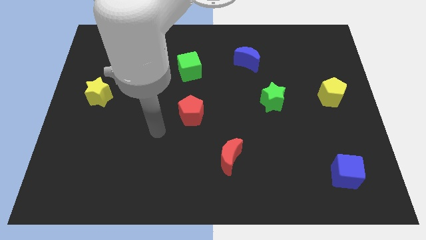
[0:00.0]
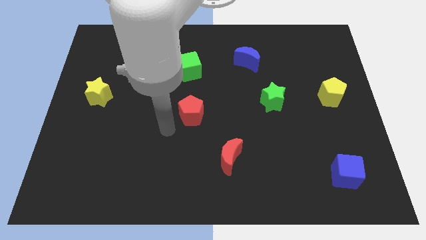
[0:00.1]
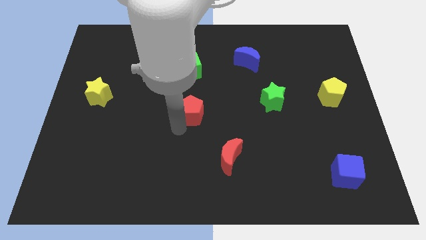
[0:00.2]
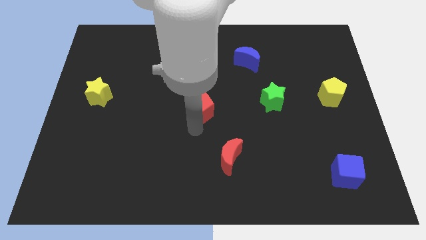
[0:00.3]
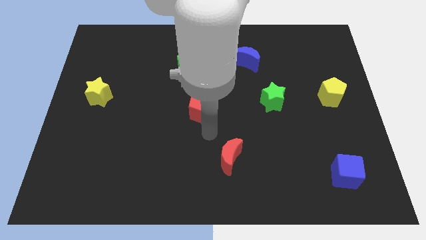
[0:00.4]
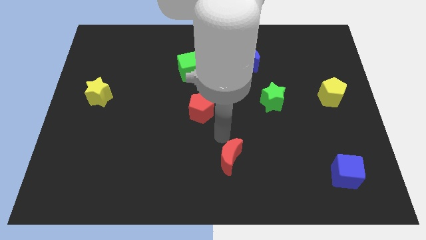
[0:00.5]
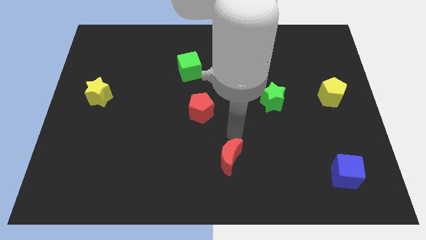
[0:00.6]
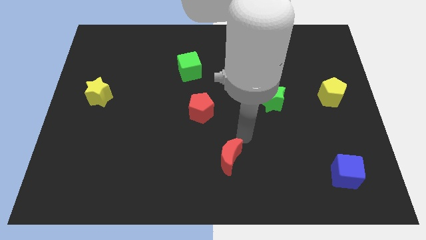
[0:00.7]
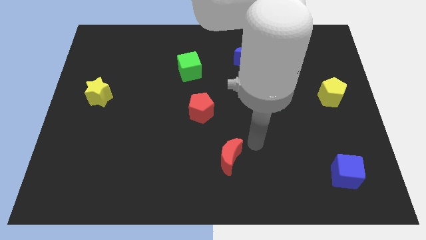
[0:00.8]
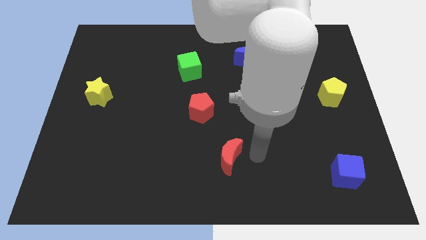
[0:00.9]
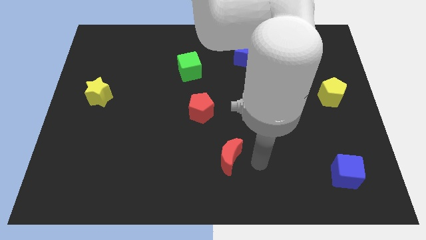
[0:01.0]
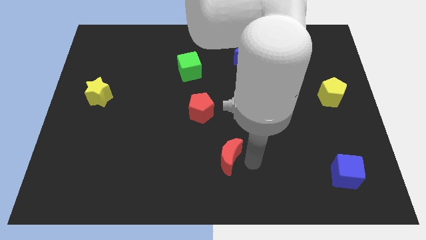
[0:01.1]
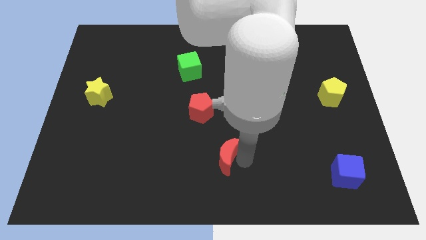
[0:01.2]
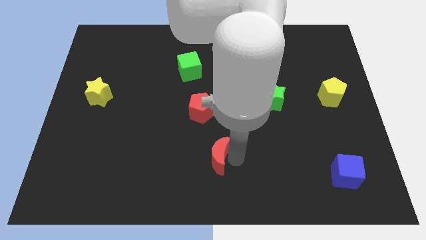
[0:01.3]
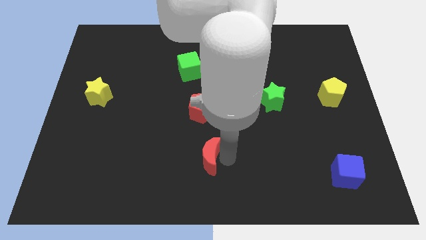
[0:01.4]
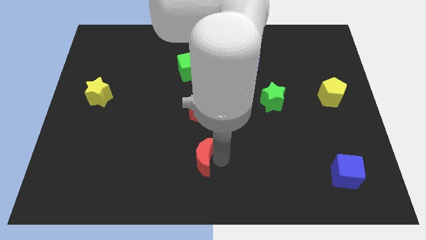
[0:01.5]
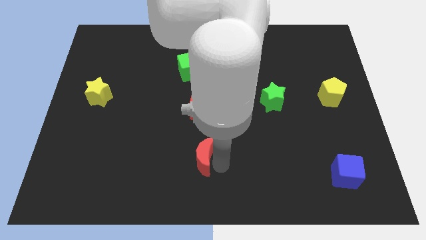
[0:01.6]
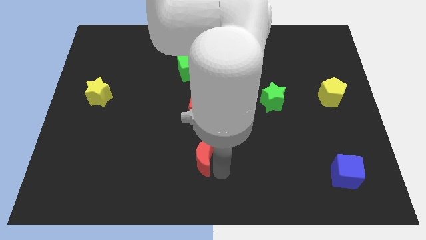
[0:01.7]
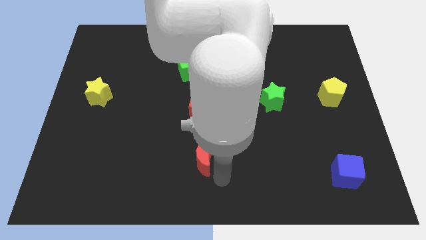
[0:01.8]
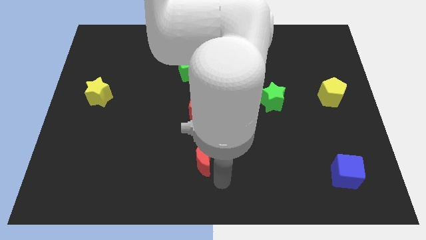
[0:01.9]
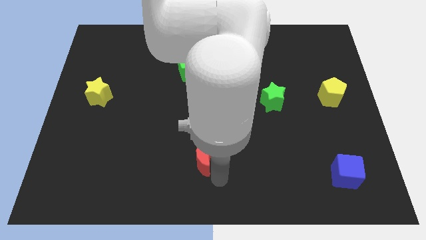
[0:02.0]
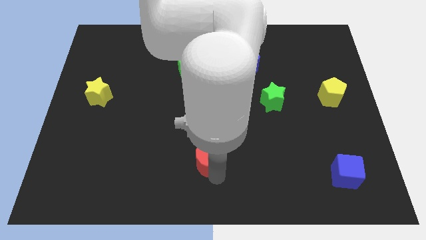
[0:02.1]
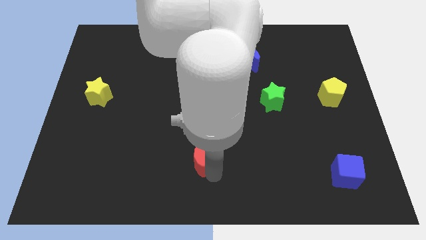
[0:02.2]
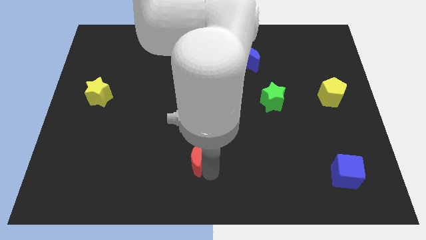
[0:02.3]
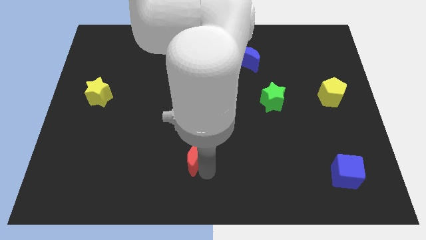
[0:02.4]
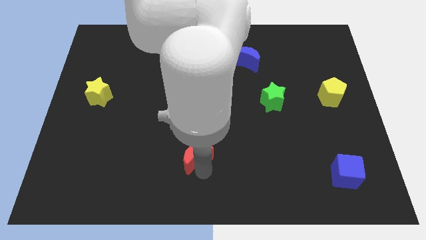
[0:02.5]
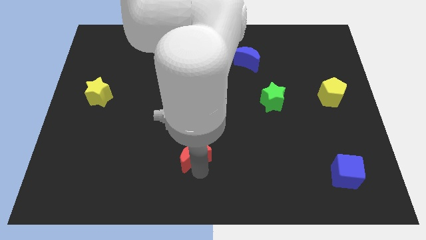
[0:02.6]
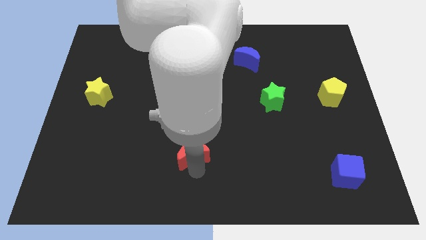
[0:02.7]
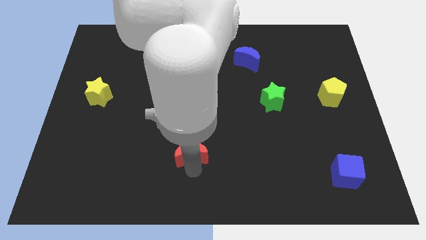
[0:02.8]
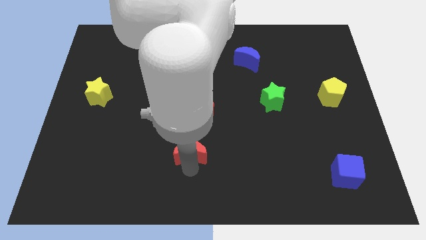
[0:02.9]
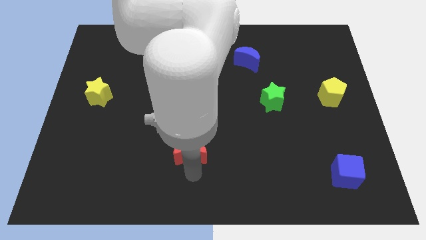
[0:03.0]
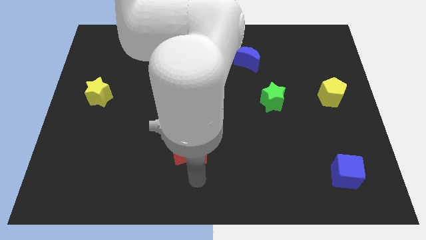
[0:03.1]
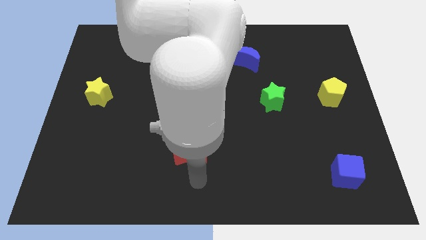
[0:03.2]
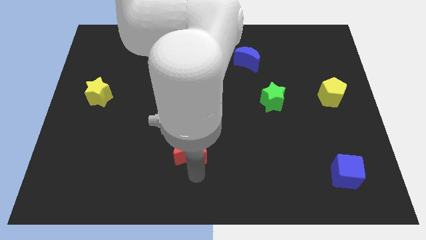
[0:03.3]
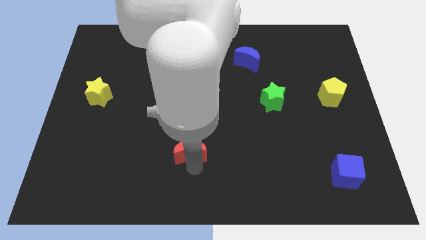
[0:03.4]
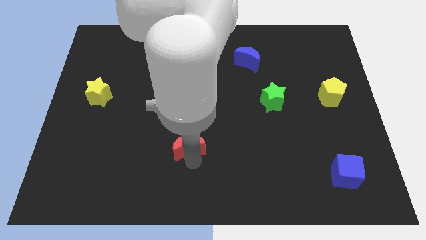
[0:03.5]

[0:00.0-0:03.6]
slightly slide the red moon upwards and to the left diagonally

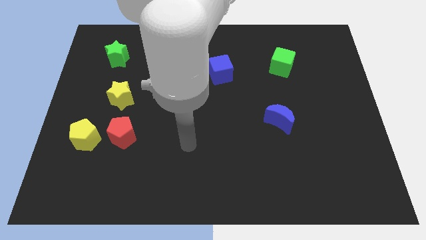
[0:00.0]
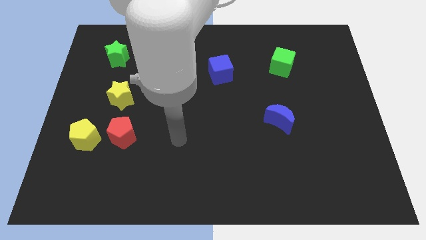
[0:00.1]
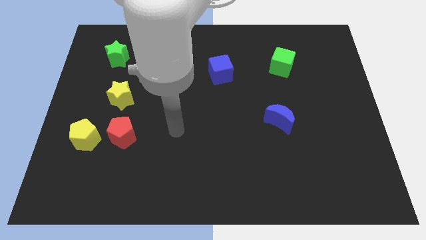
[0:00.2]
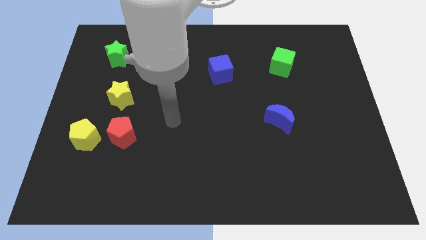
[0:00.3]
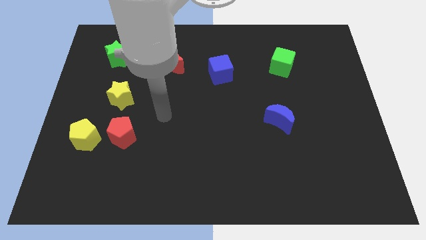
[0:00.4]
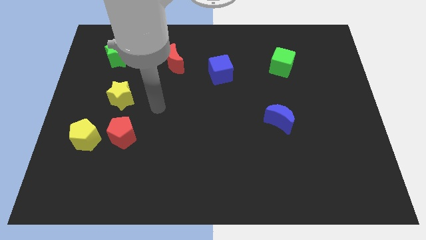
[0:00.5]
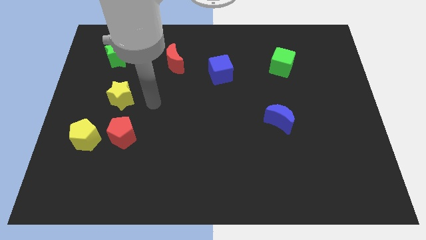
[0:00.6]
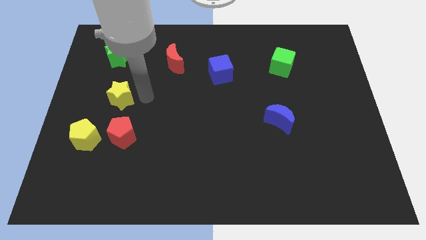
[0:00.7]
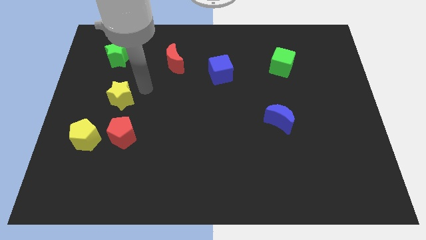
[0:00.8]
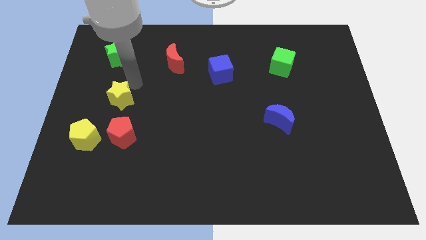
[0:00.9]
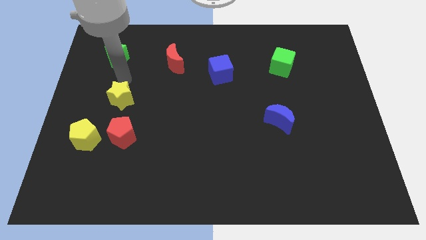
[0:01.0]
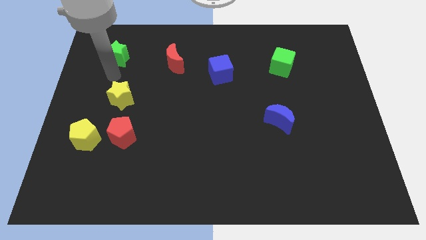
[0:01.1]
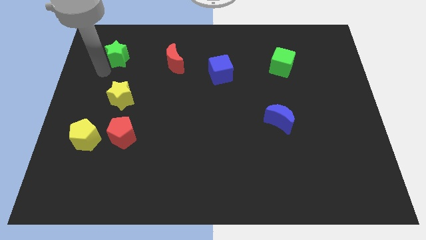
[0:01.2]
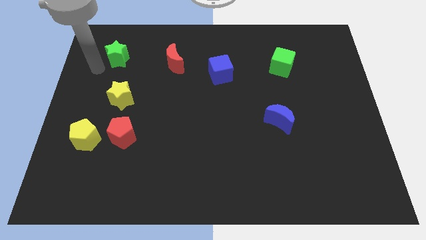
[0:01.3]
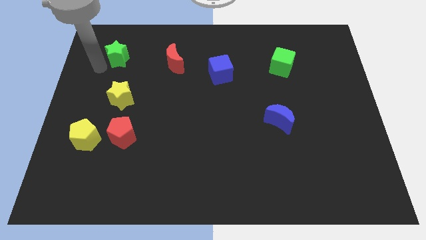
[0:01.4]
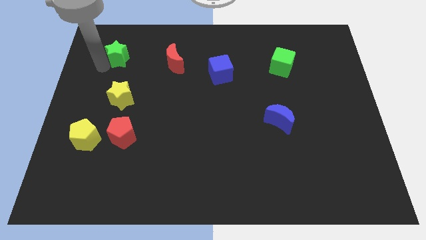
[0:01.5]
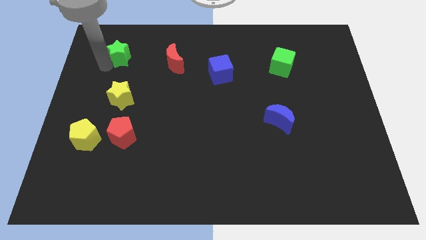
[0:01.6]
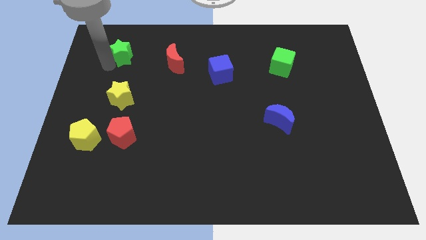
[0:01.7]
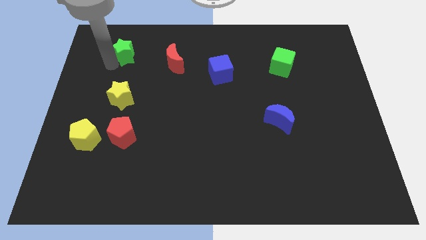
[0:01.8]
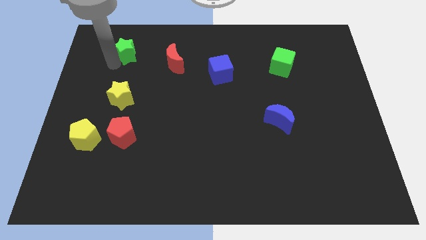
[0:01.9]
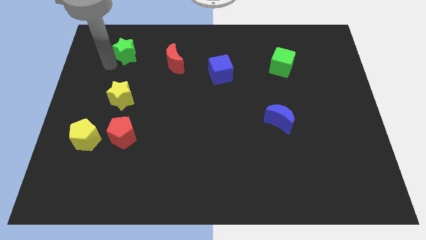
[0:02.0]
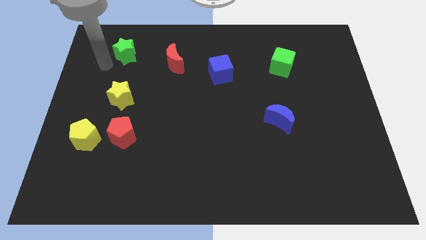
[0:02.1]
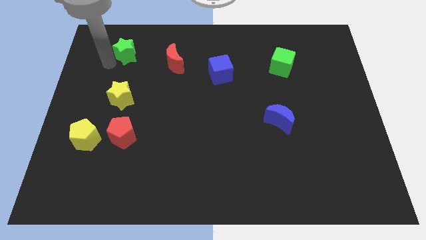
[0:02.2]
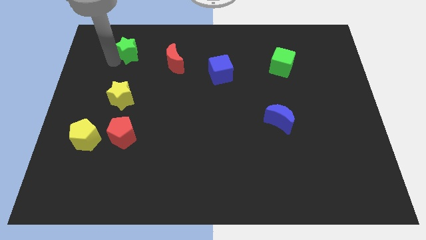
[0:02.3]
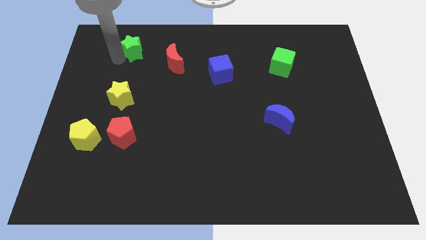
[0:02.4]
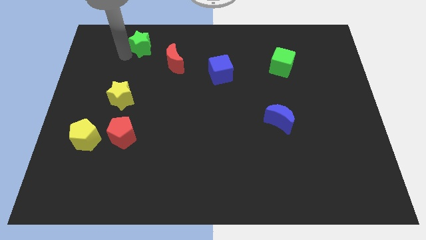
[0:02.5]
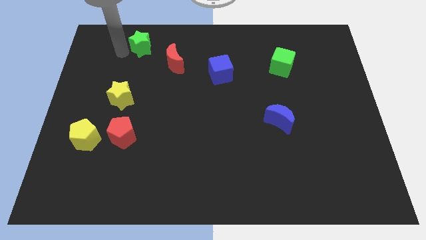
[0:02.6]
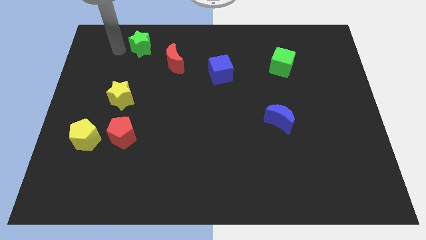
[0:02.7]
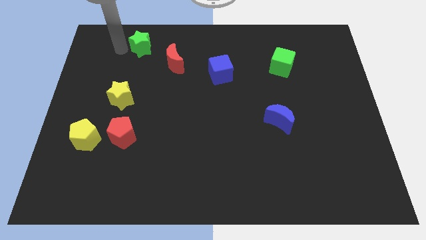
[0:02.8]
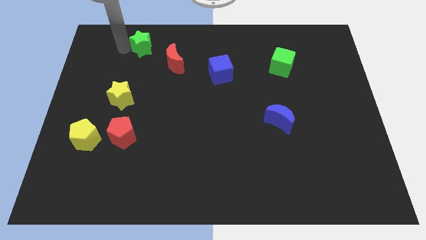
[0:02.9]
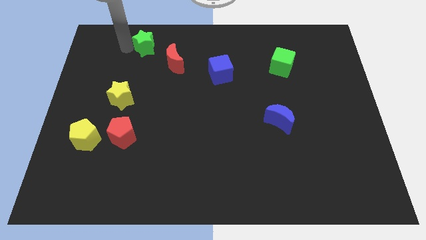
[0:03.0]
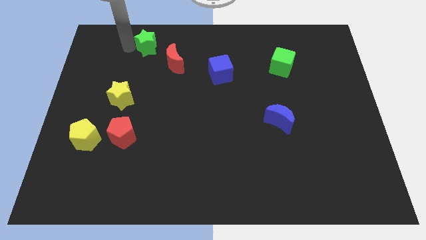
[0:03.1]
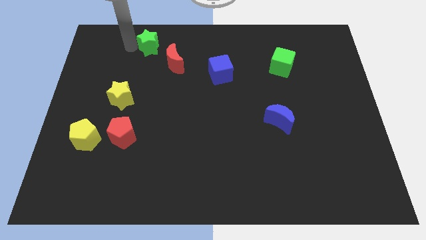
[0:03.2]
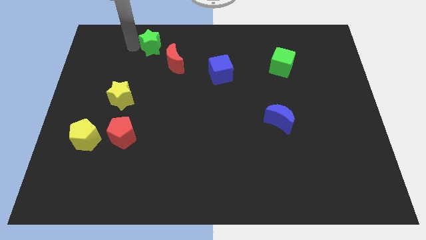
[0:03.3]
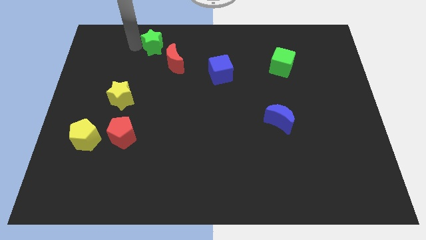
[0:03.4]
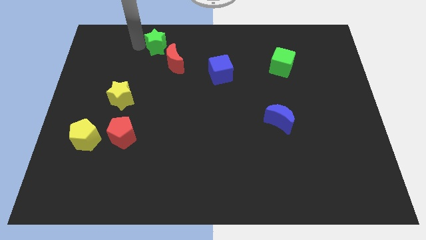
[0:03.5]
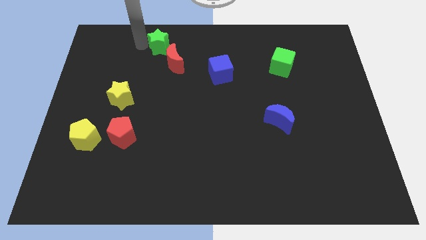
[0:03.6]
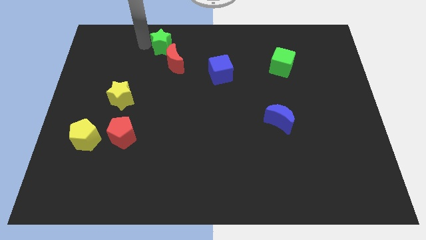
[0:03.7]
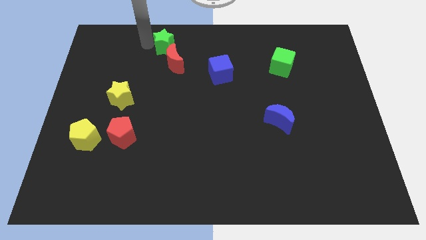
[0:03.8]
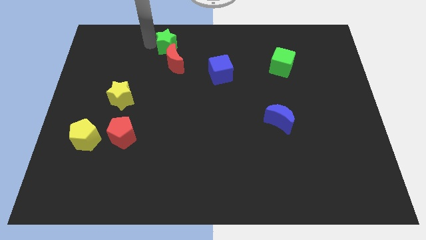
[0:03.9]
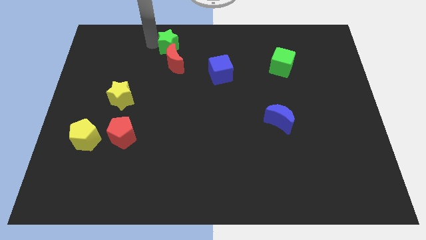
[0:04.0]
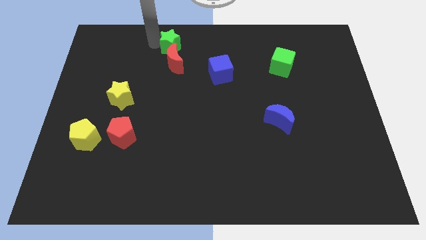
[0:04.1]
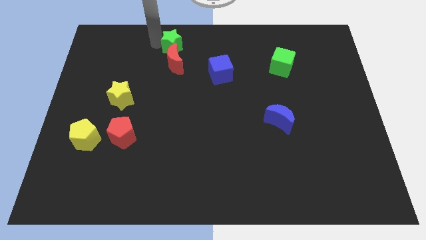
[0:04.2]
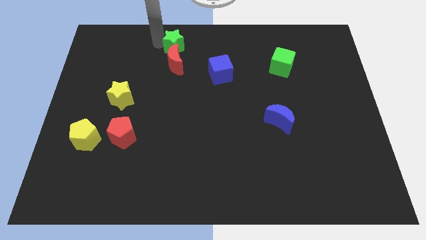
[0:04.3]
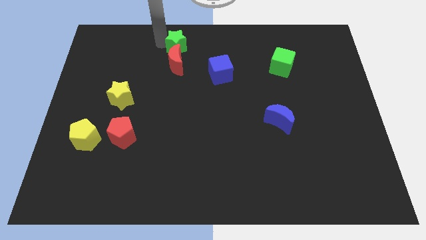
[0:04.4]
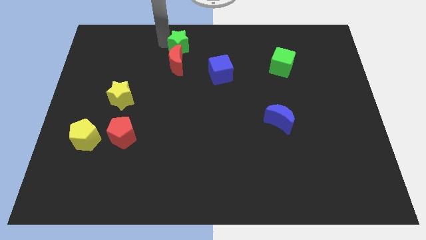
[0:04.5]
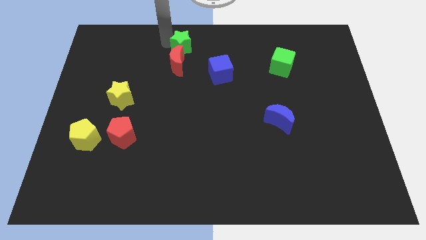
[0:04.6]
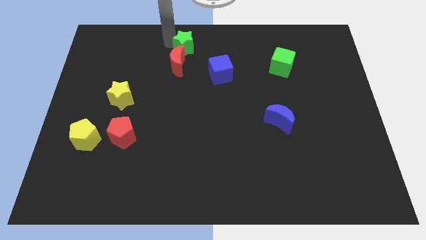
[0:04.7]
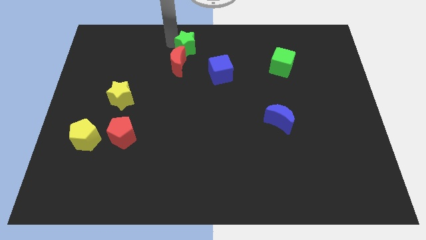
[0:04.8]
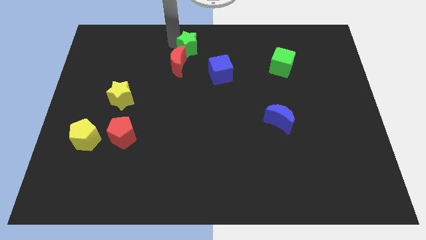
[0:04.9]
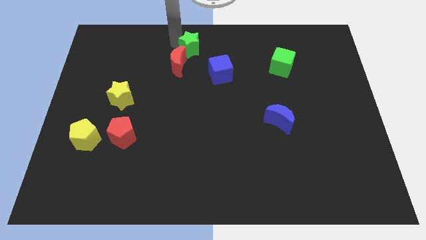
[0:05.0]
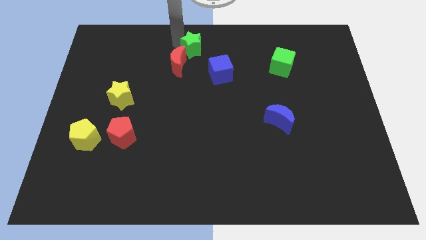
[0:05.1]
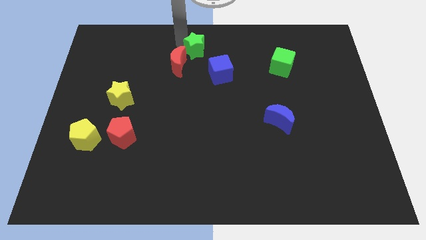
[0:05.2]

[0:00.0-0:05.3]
slide the green star to the right
